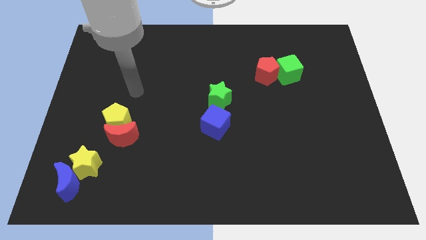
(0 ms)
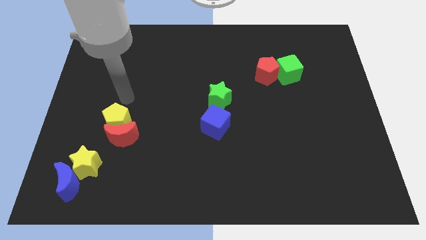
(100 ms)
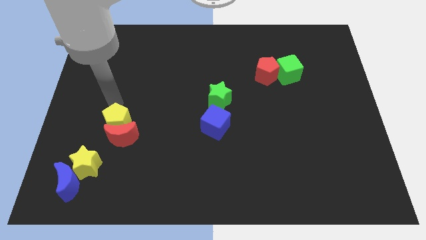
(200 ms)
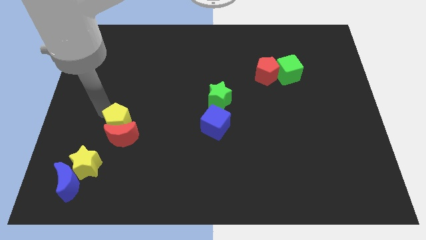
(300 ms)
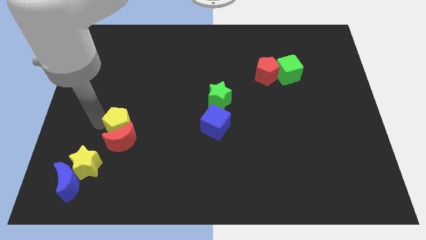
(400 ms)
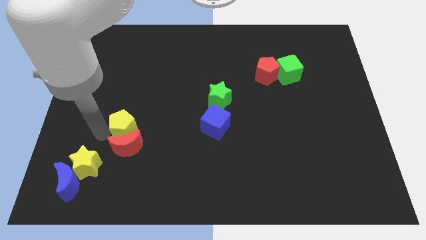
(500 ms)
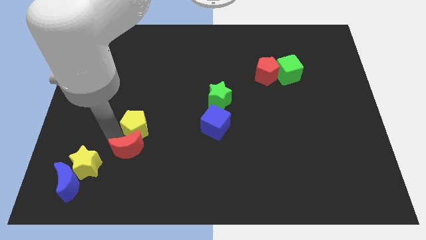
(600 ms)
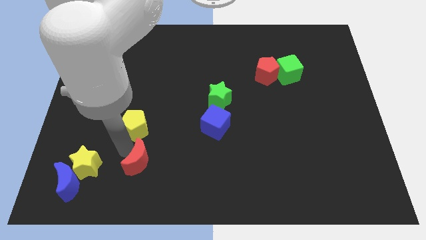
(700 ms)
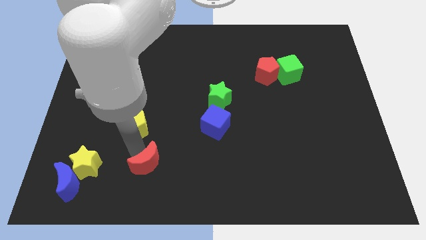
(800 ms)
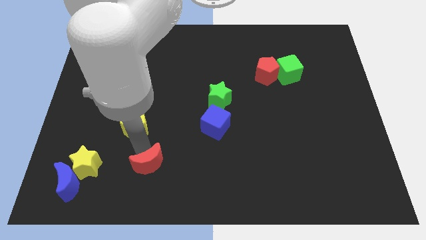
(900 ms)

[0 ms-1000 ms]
move the yellow pentagon away from the red moon

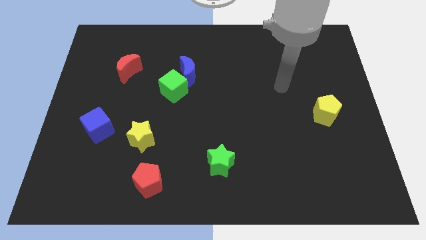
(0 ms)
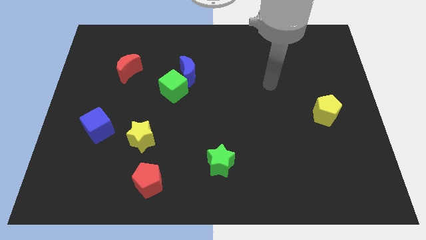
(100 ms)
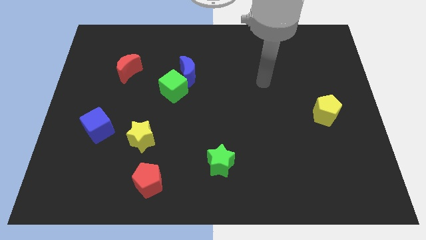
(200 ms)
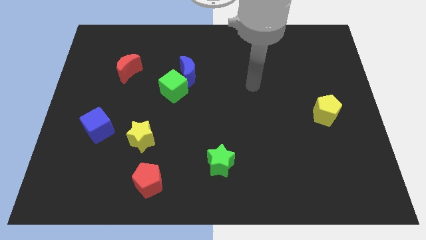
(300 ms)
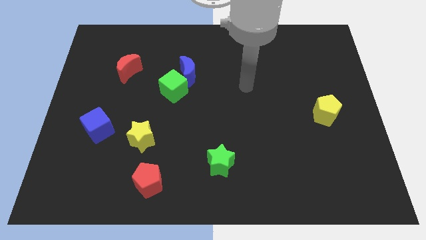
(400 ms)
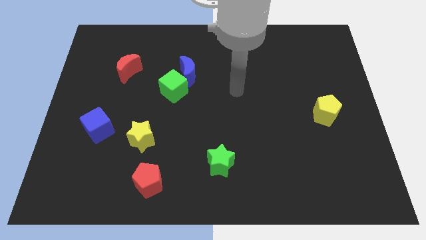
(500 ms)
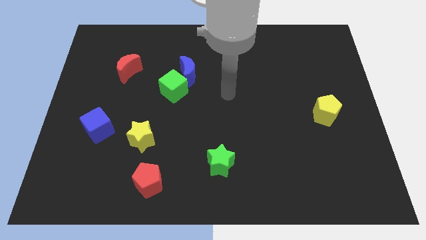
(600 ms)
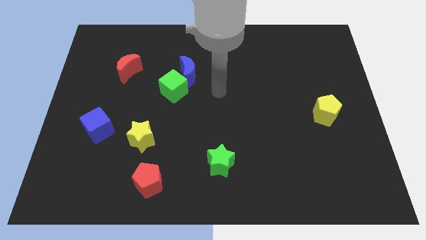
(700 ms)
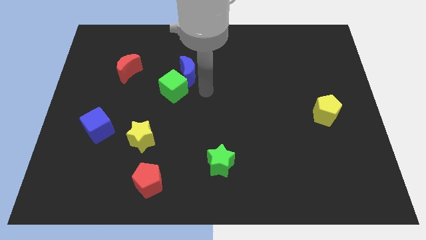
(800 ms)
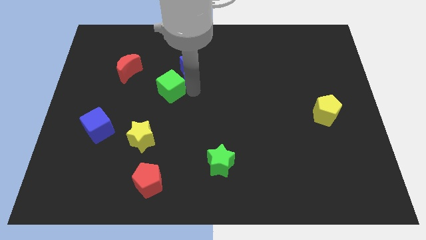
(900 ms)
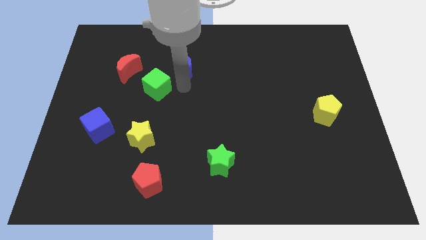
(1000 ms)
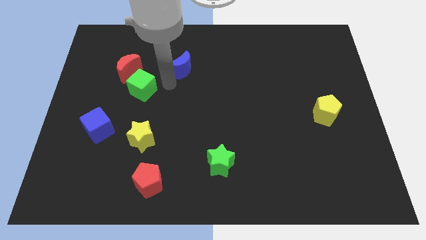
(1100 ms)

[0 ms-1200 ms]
move the blue moon away from the green cube

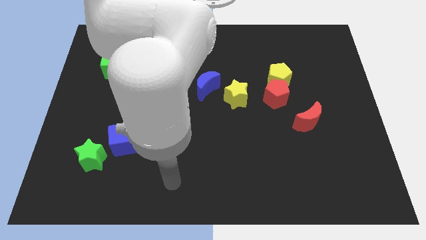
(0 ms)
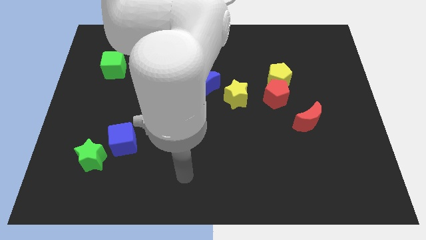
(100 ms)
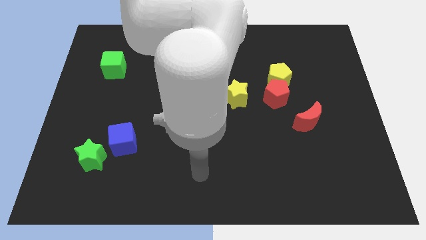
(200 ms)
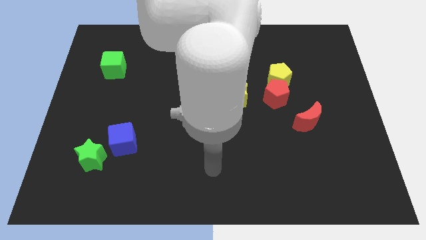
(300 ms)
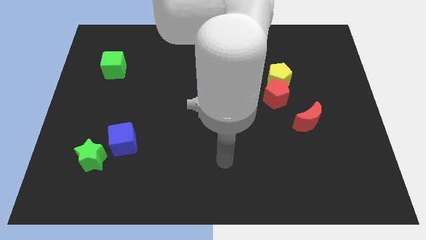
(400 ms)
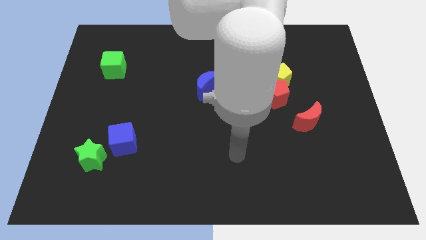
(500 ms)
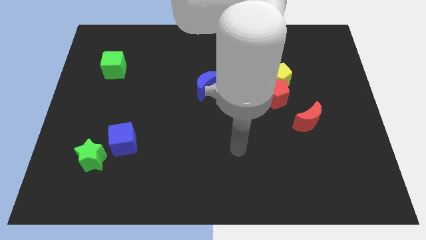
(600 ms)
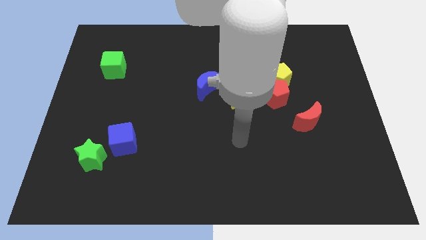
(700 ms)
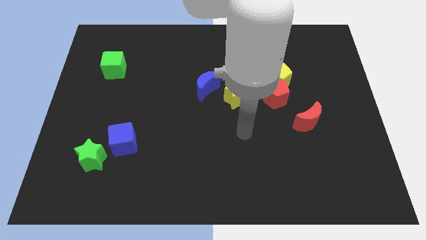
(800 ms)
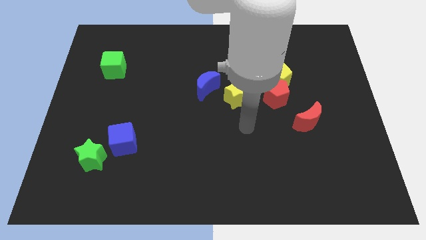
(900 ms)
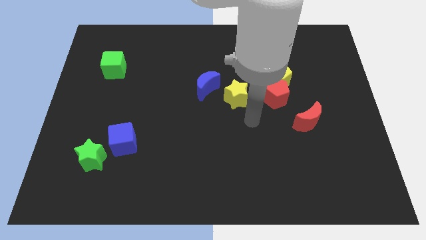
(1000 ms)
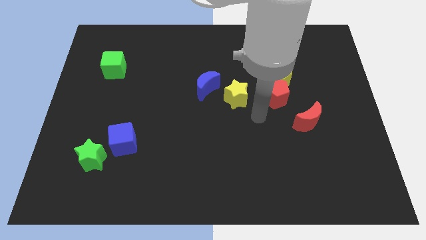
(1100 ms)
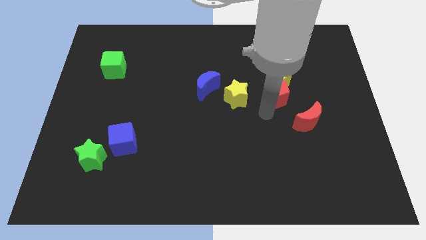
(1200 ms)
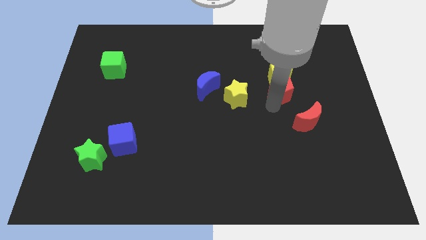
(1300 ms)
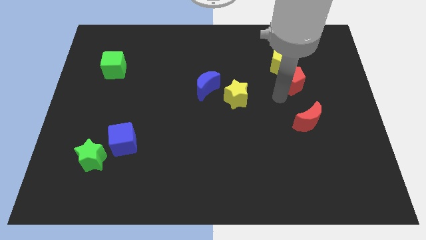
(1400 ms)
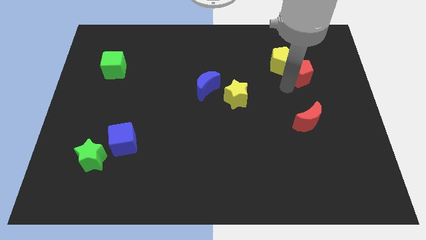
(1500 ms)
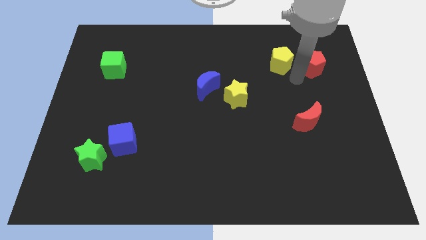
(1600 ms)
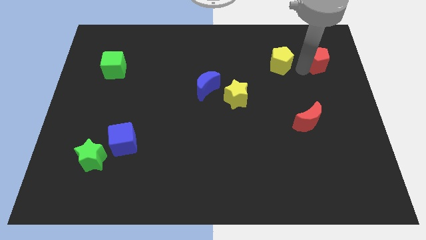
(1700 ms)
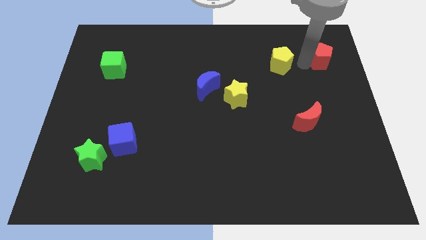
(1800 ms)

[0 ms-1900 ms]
pull the yellow pentagon apart from the red pentagon

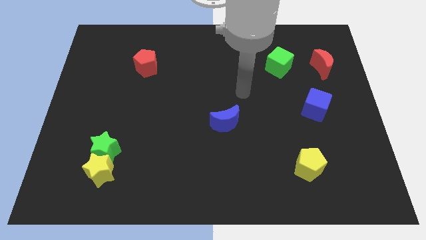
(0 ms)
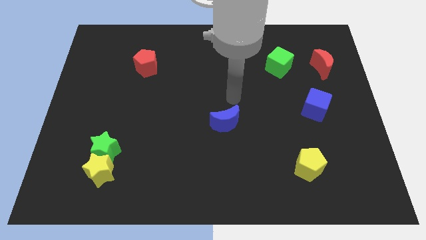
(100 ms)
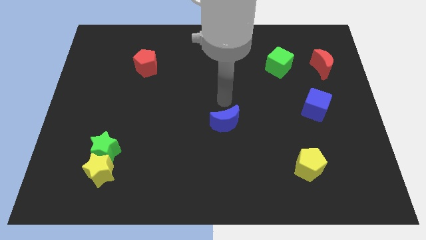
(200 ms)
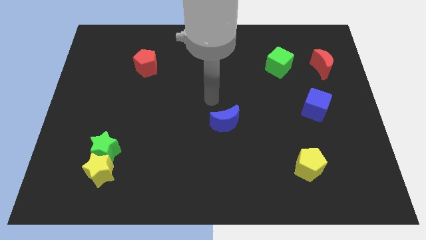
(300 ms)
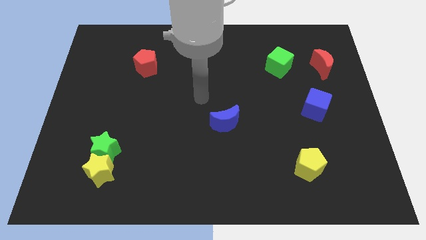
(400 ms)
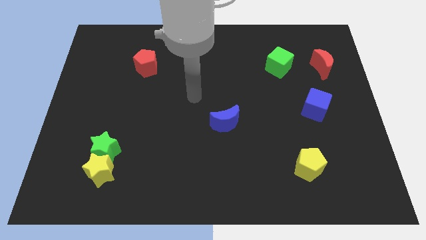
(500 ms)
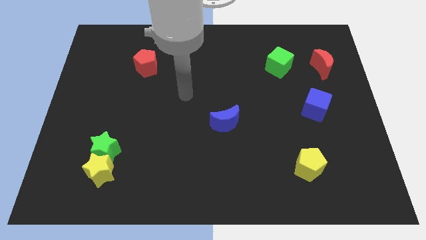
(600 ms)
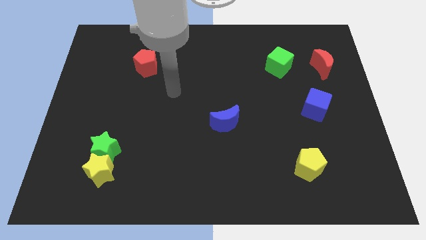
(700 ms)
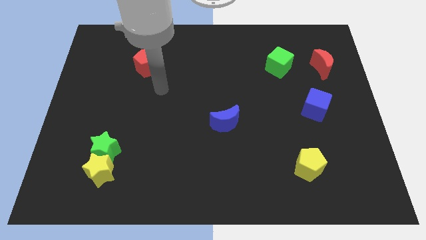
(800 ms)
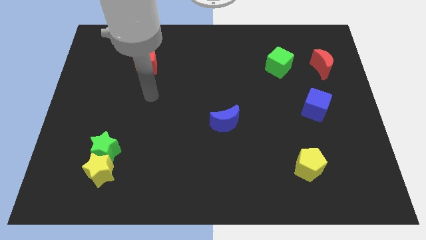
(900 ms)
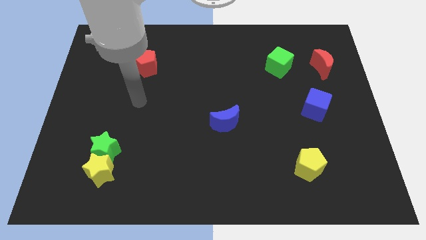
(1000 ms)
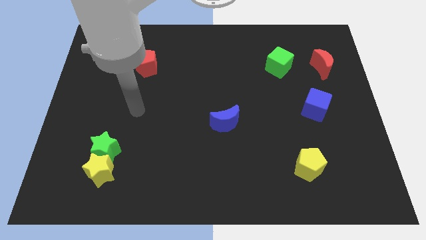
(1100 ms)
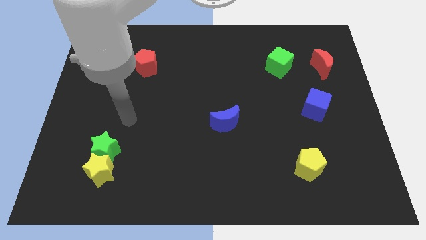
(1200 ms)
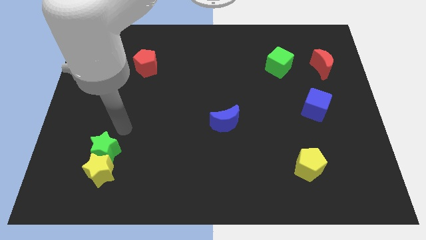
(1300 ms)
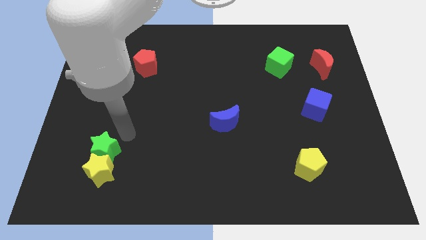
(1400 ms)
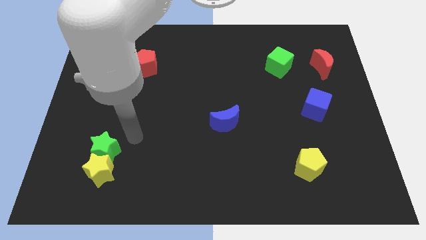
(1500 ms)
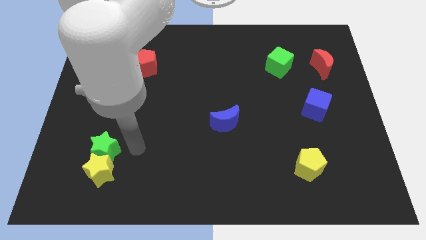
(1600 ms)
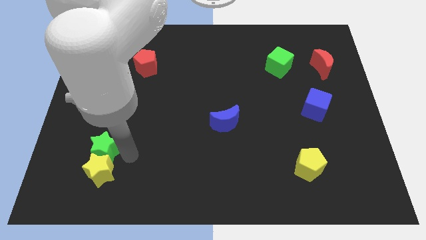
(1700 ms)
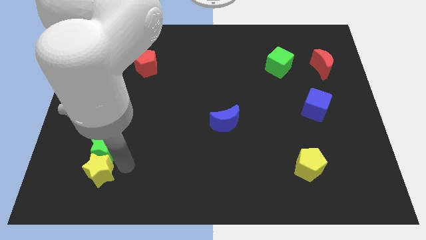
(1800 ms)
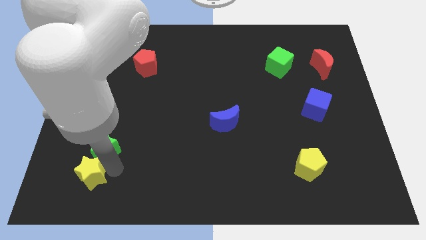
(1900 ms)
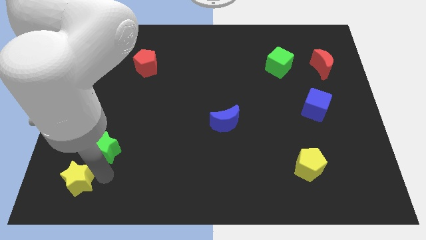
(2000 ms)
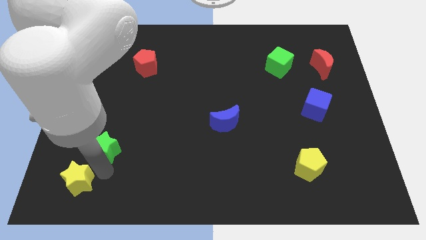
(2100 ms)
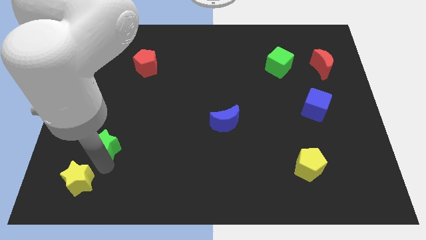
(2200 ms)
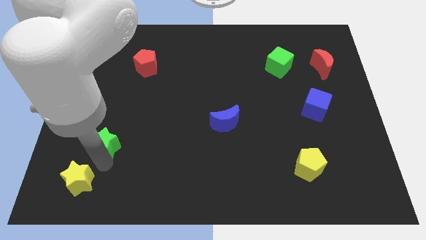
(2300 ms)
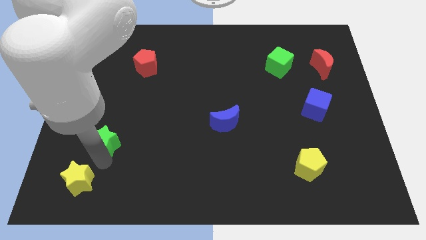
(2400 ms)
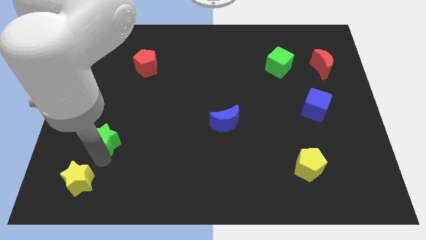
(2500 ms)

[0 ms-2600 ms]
pull the green star apart from the yellow star

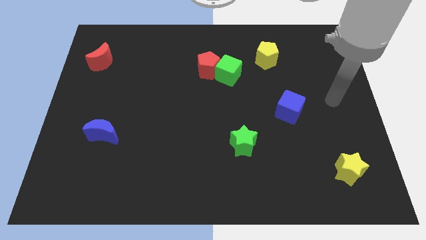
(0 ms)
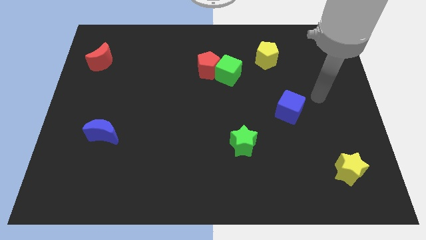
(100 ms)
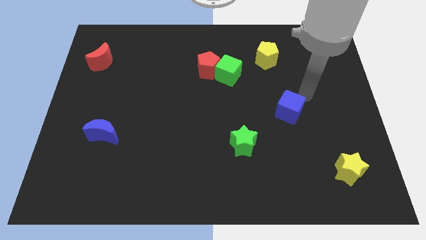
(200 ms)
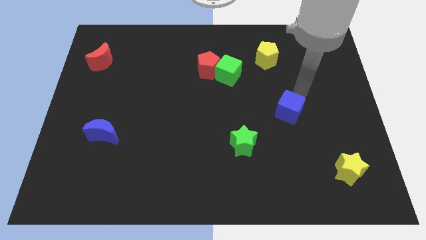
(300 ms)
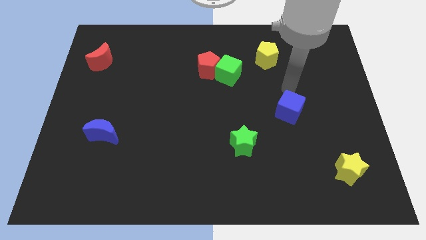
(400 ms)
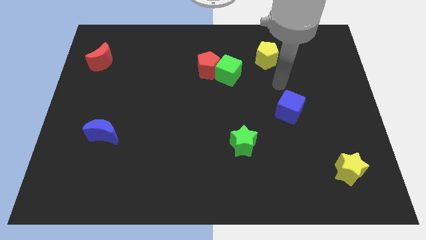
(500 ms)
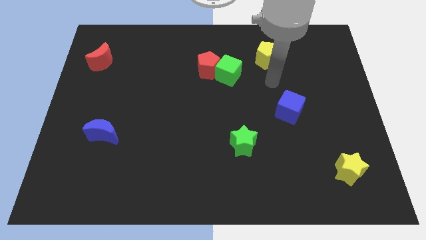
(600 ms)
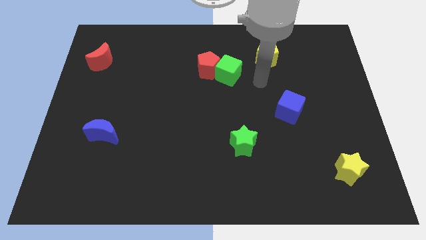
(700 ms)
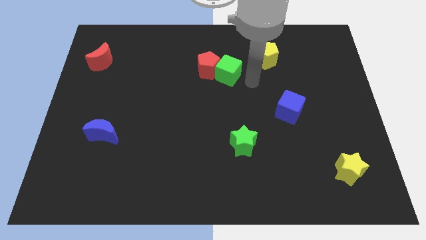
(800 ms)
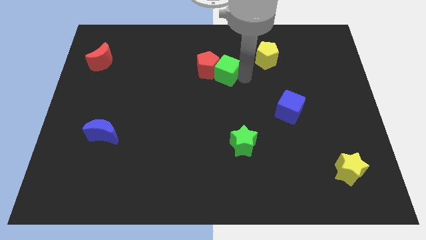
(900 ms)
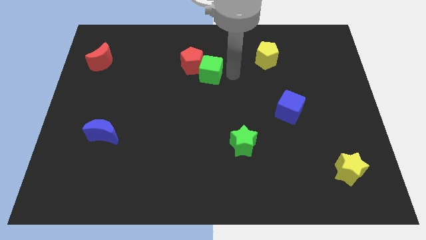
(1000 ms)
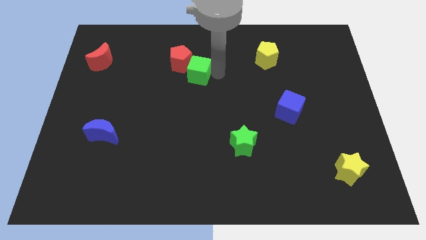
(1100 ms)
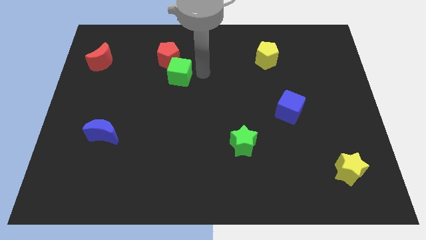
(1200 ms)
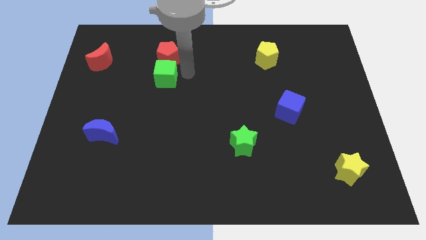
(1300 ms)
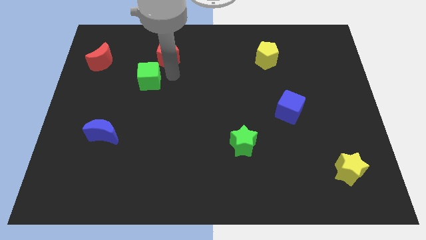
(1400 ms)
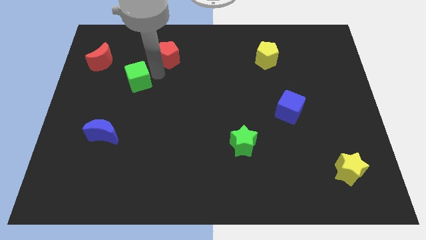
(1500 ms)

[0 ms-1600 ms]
move the red pentagon away from the green cube

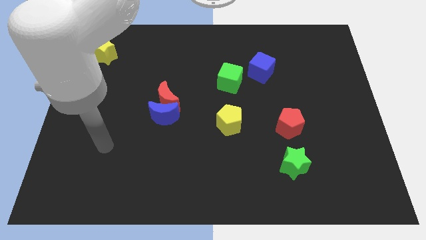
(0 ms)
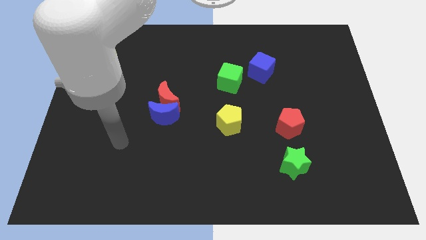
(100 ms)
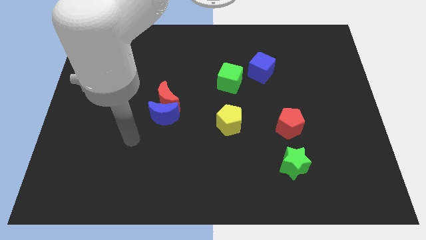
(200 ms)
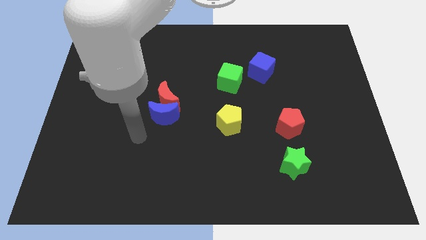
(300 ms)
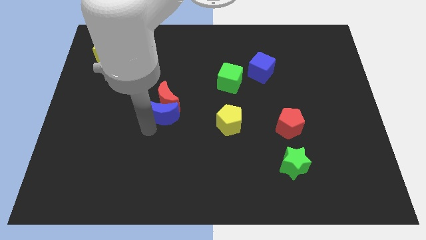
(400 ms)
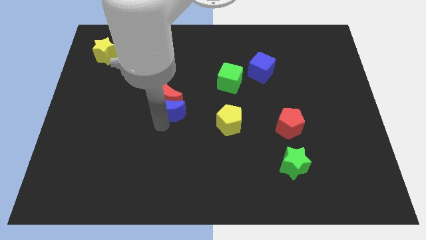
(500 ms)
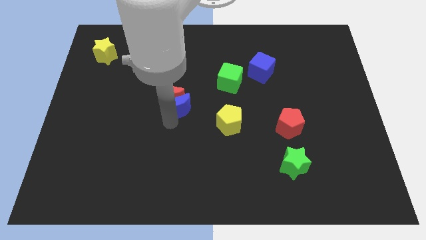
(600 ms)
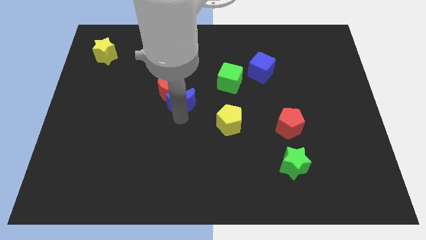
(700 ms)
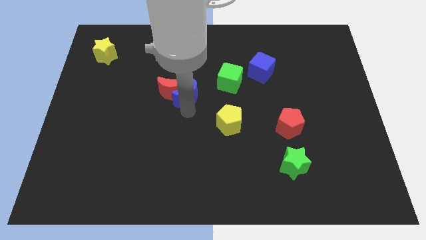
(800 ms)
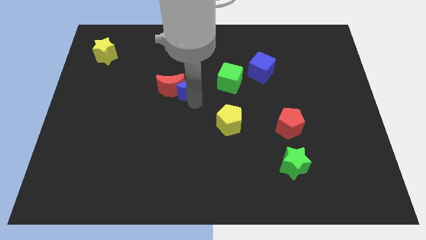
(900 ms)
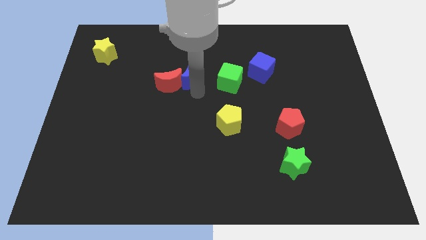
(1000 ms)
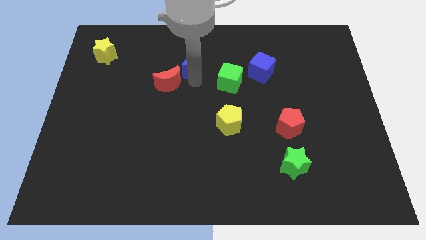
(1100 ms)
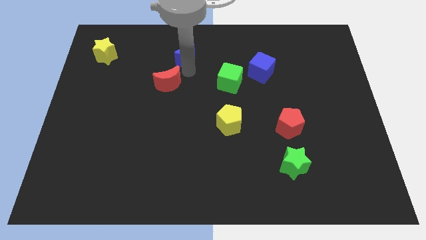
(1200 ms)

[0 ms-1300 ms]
move the red moon away from the blue moon
